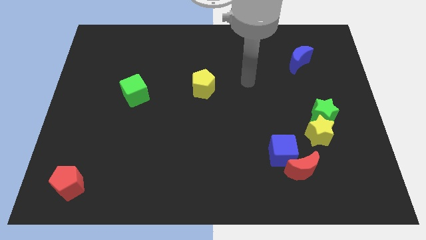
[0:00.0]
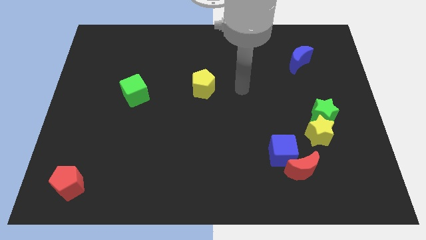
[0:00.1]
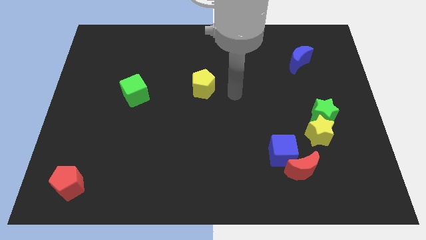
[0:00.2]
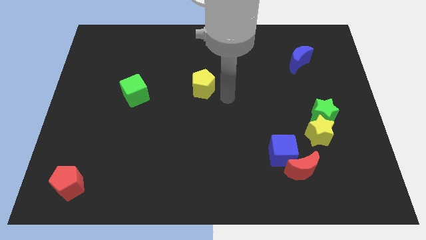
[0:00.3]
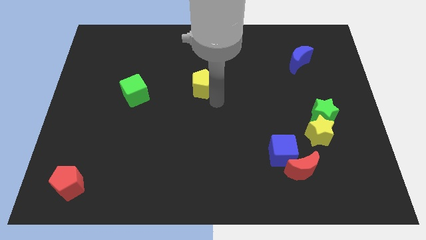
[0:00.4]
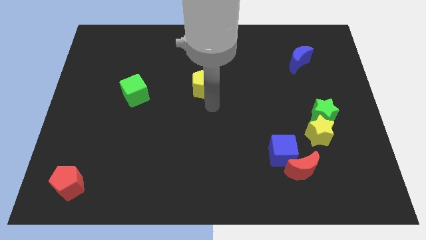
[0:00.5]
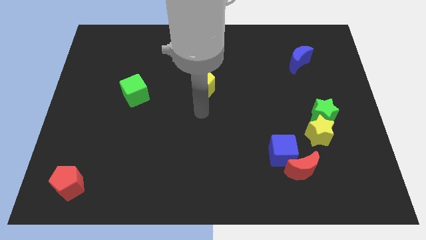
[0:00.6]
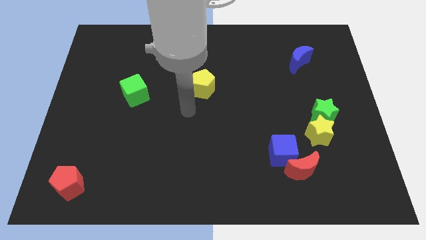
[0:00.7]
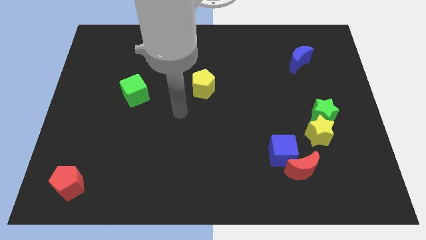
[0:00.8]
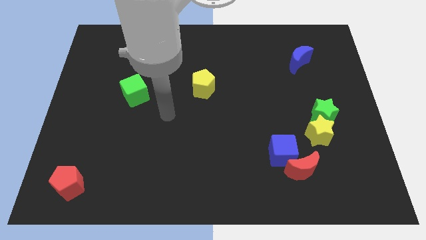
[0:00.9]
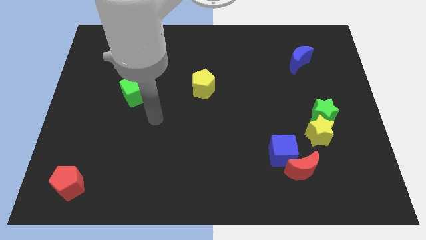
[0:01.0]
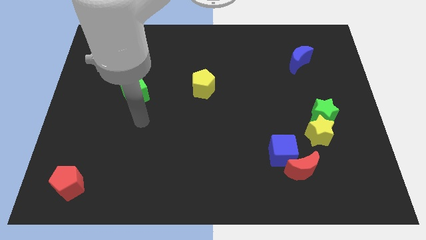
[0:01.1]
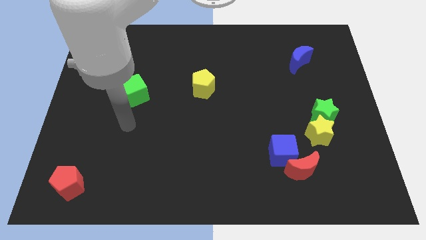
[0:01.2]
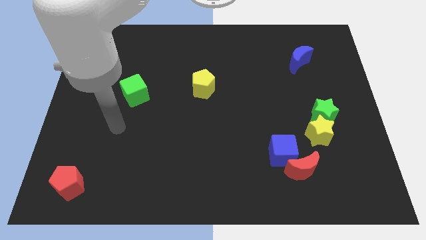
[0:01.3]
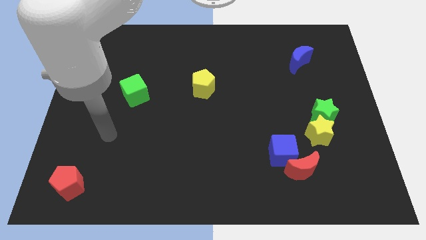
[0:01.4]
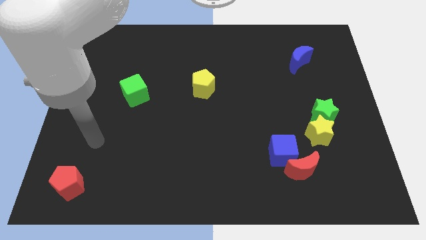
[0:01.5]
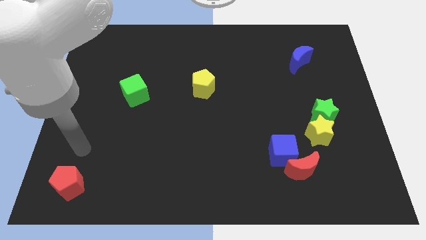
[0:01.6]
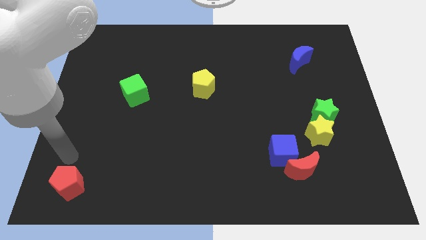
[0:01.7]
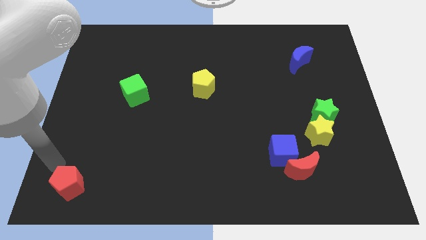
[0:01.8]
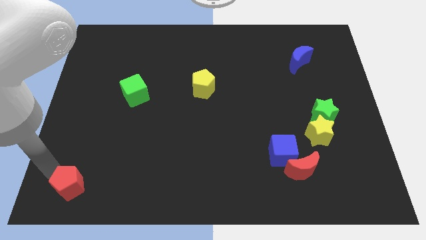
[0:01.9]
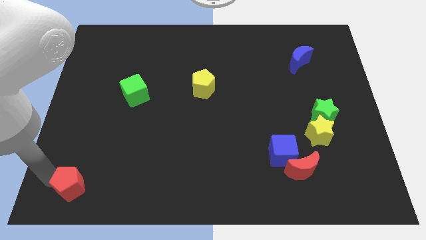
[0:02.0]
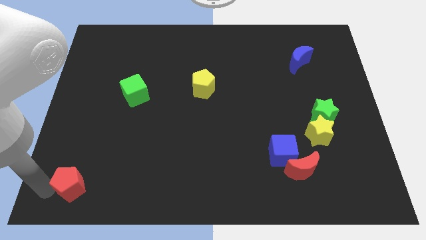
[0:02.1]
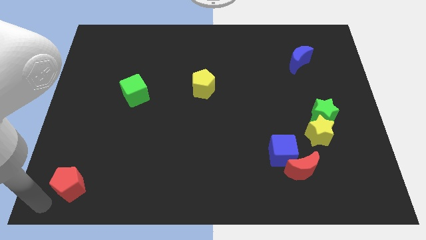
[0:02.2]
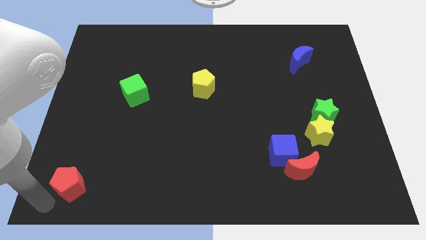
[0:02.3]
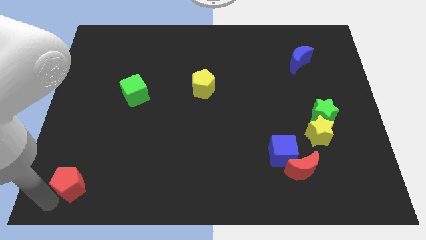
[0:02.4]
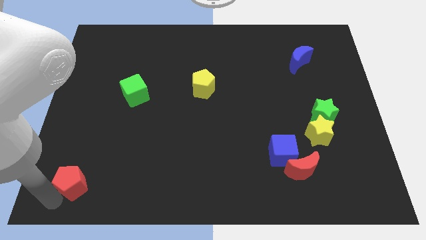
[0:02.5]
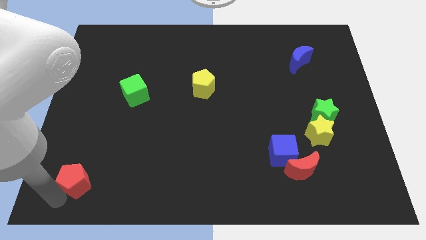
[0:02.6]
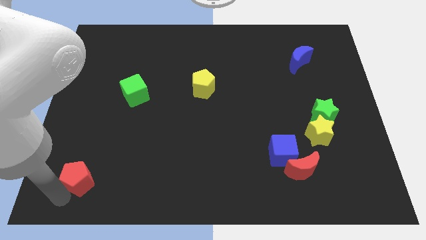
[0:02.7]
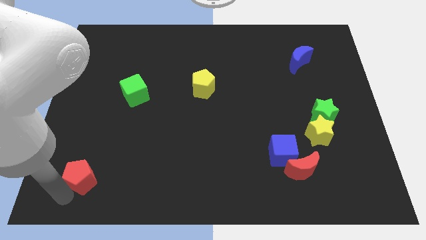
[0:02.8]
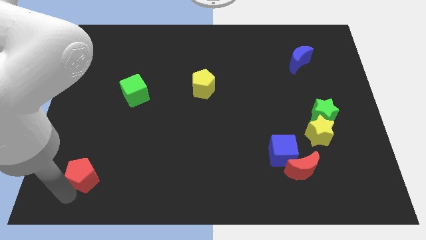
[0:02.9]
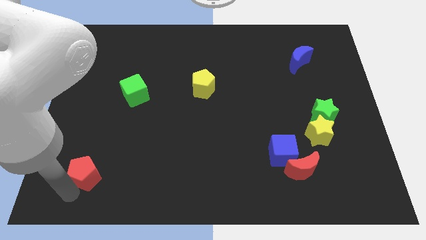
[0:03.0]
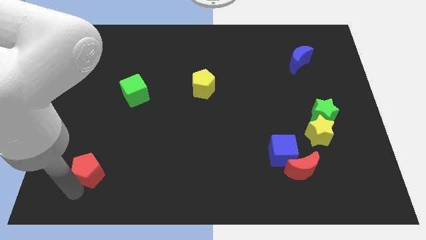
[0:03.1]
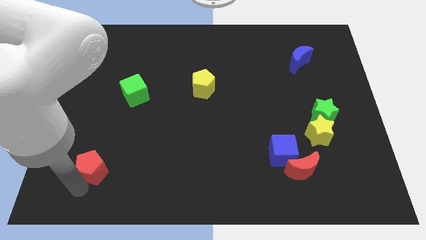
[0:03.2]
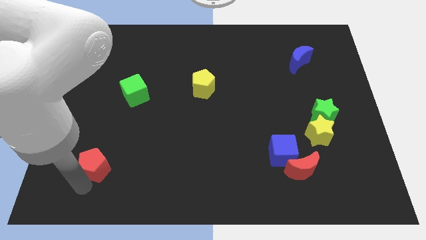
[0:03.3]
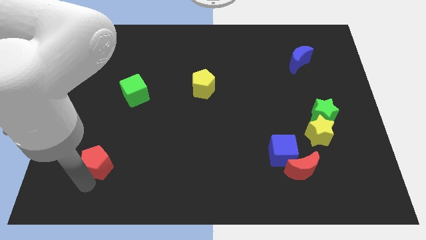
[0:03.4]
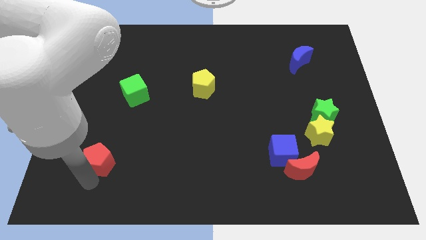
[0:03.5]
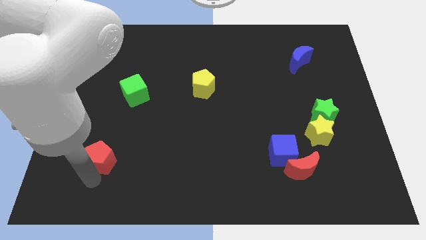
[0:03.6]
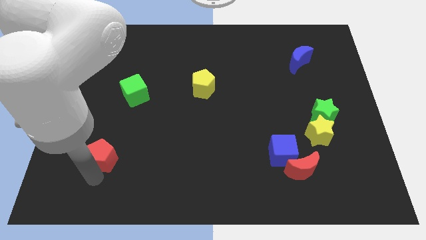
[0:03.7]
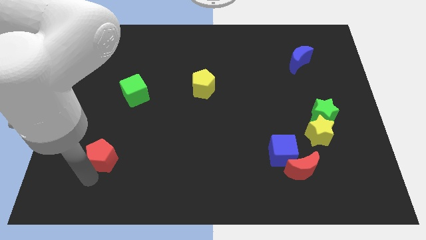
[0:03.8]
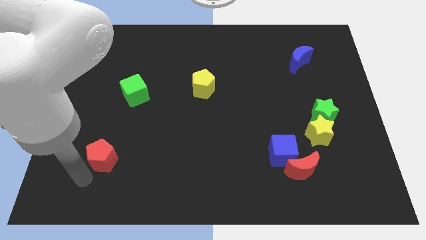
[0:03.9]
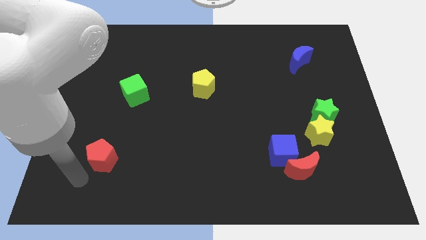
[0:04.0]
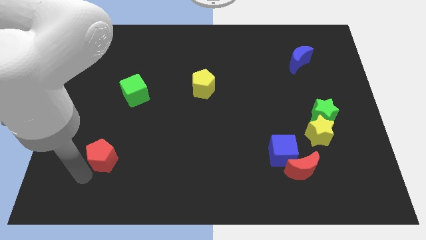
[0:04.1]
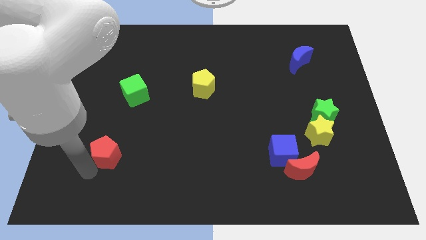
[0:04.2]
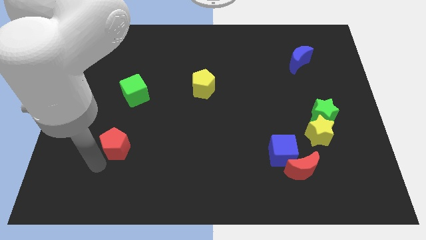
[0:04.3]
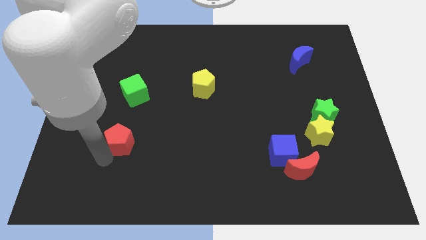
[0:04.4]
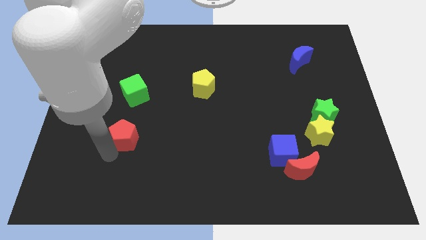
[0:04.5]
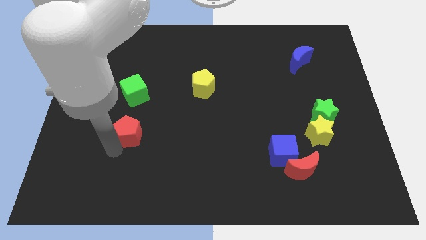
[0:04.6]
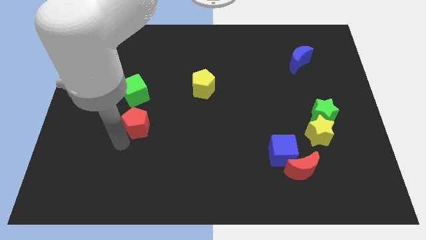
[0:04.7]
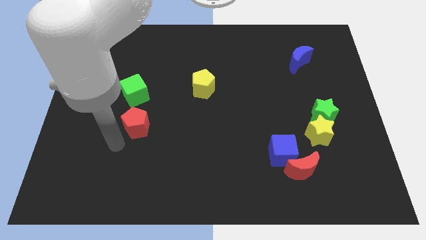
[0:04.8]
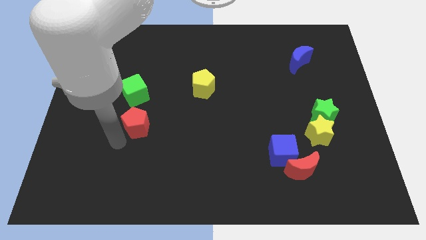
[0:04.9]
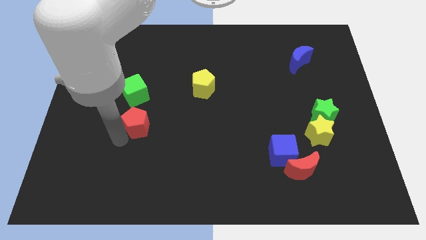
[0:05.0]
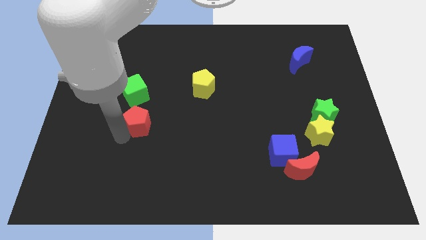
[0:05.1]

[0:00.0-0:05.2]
push the red pentagon to the bottom right of the green cube

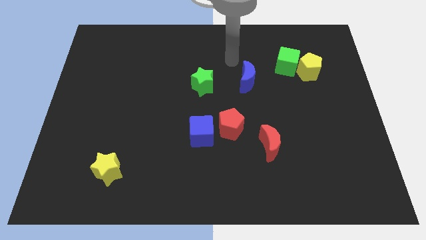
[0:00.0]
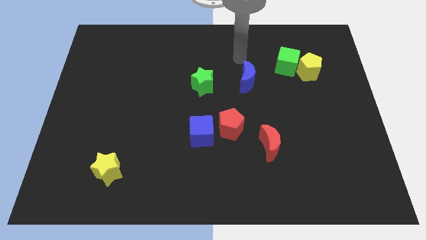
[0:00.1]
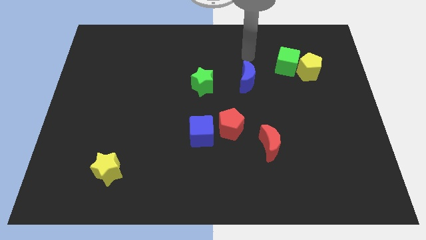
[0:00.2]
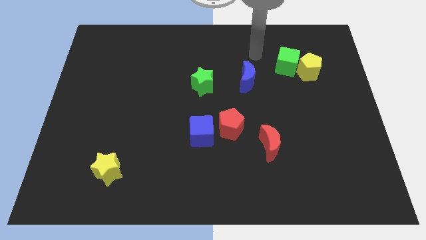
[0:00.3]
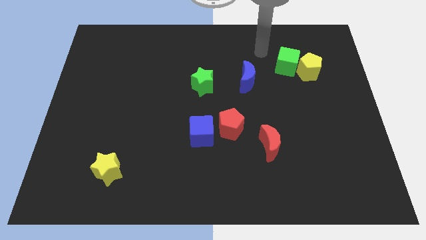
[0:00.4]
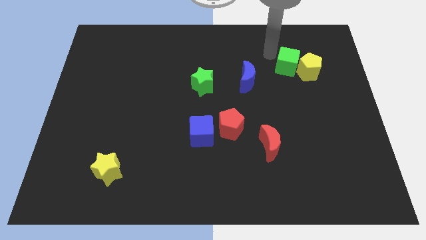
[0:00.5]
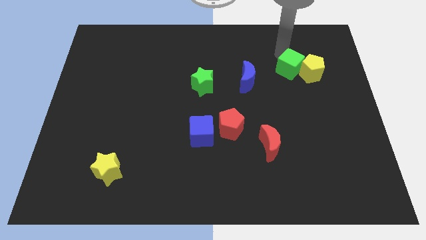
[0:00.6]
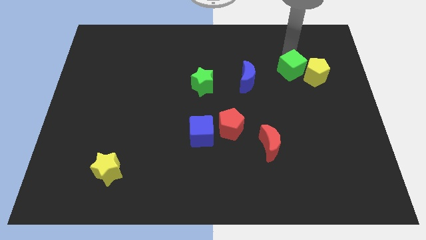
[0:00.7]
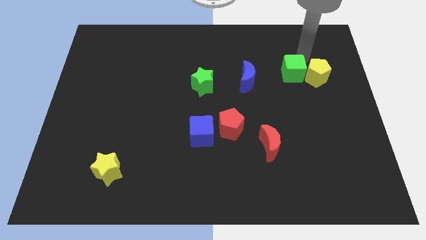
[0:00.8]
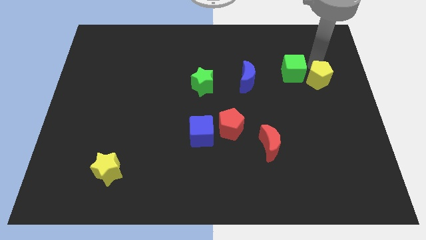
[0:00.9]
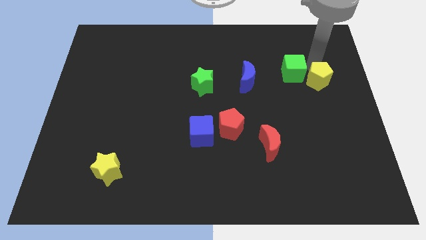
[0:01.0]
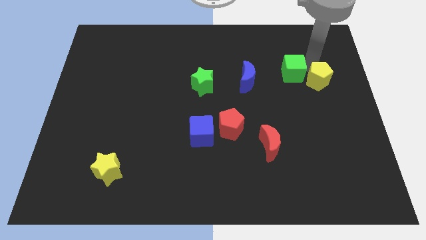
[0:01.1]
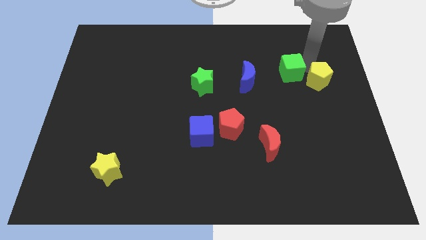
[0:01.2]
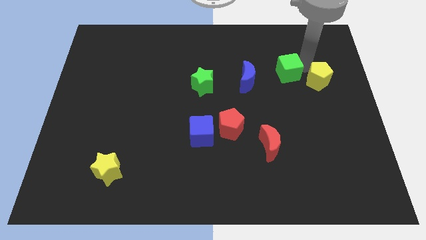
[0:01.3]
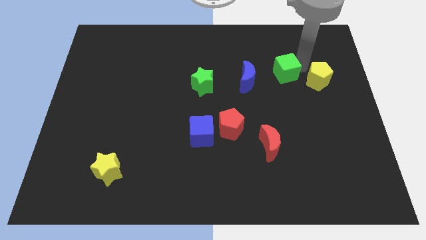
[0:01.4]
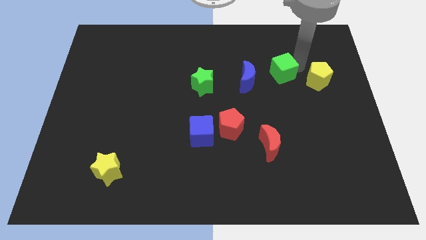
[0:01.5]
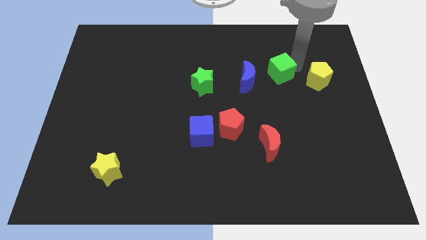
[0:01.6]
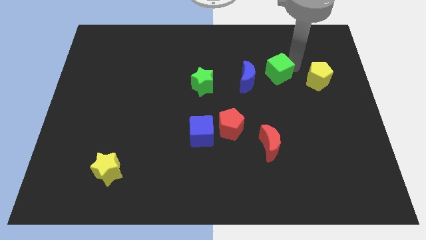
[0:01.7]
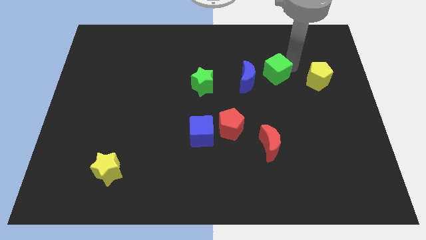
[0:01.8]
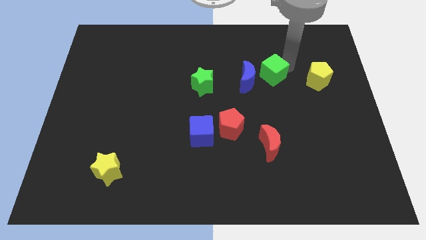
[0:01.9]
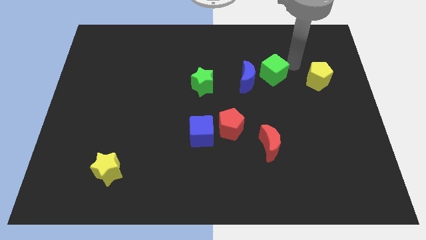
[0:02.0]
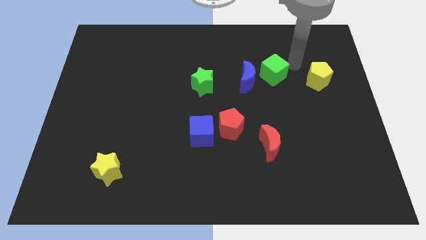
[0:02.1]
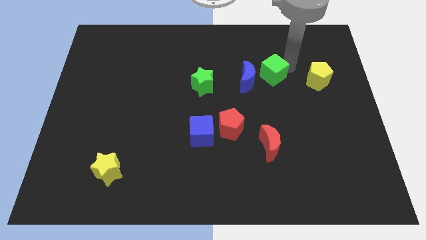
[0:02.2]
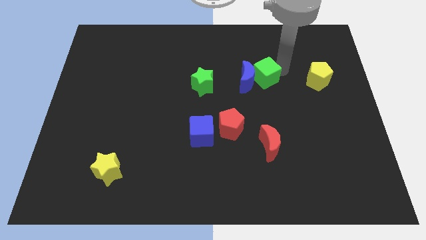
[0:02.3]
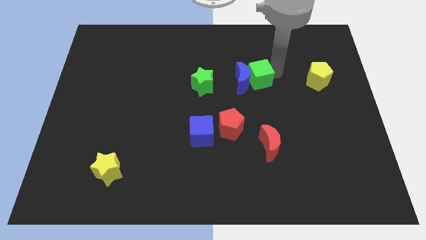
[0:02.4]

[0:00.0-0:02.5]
move the green cube to the right side of the green star
